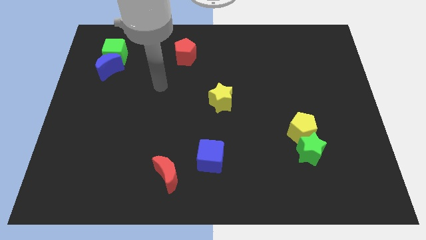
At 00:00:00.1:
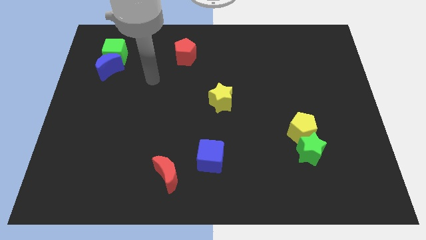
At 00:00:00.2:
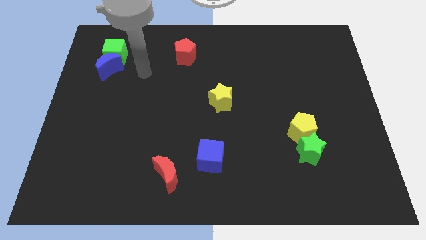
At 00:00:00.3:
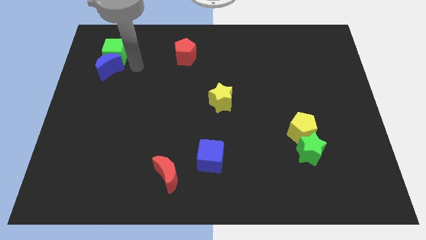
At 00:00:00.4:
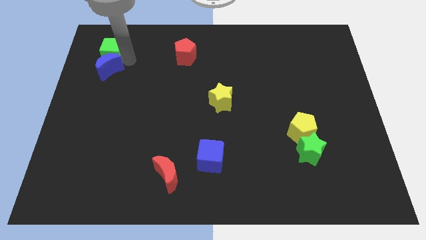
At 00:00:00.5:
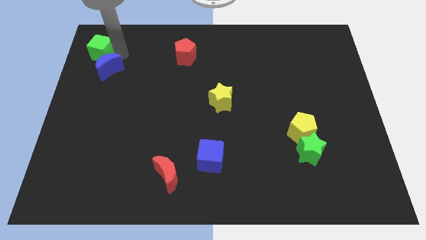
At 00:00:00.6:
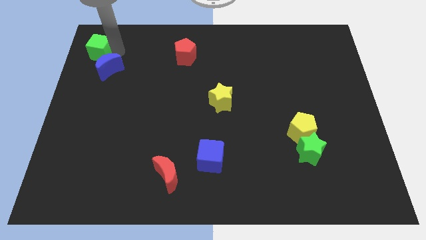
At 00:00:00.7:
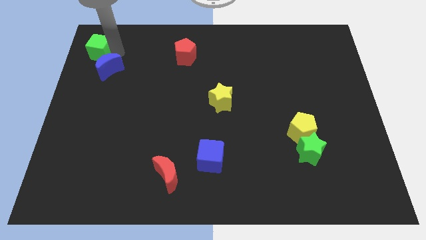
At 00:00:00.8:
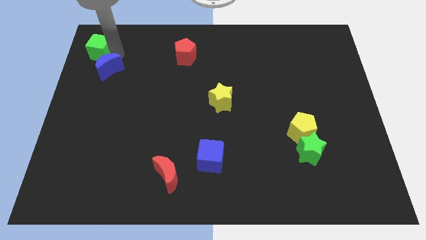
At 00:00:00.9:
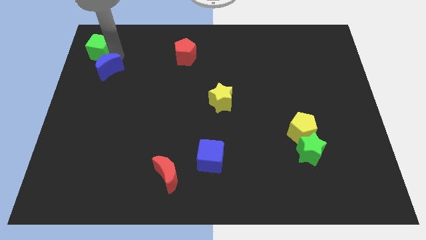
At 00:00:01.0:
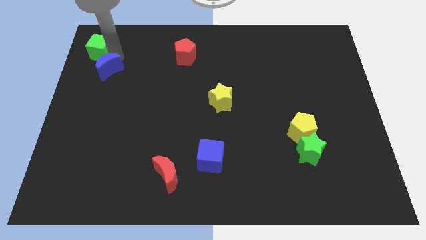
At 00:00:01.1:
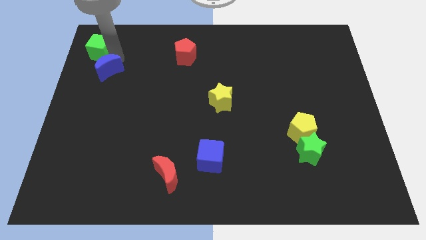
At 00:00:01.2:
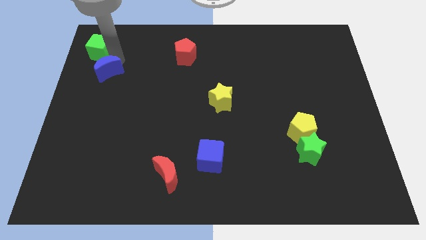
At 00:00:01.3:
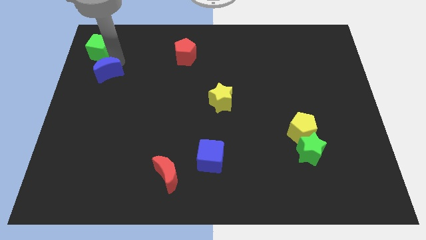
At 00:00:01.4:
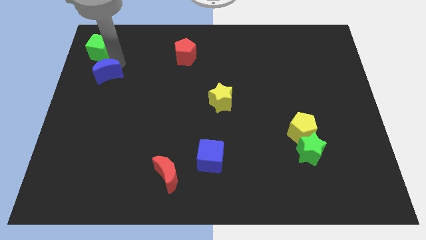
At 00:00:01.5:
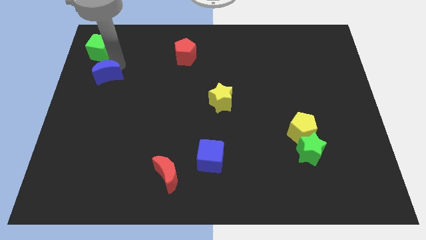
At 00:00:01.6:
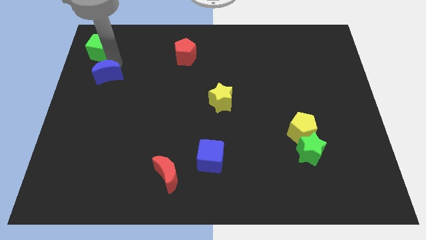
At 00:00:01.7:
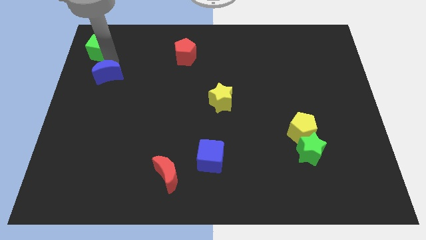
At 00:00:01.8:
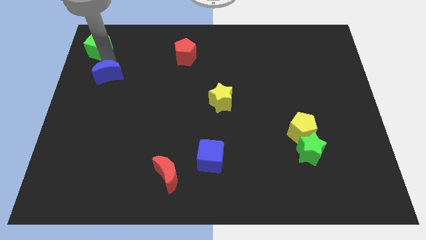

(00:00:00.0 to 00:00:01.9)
separate the blue moon from the green cube

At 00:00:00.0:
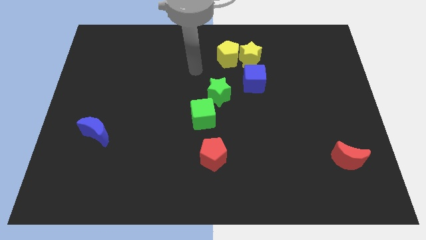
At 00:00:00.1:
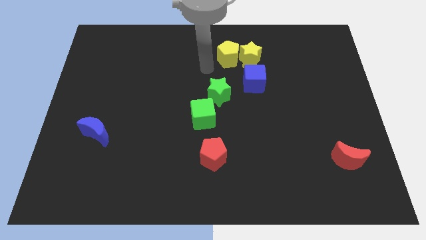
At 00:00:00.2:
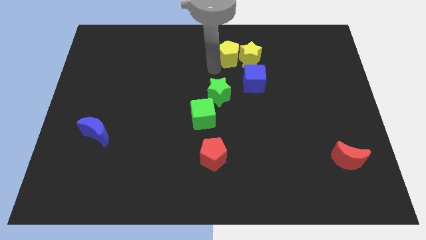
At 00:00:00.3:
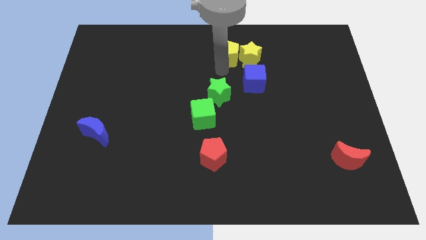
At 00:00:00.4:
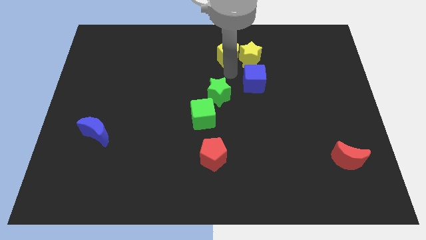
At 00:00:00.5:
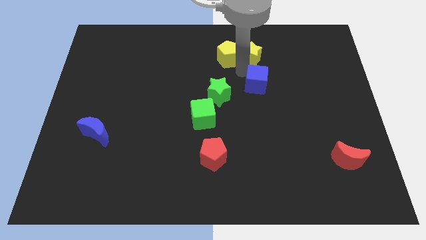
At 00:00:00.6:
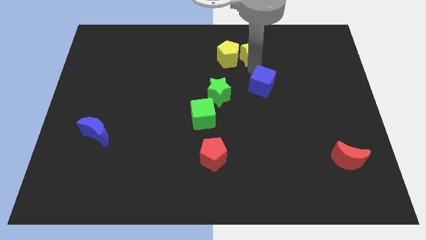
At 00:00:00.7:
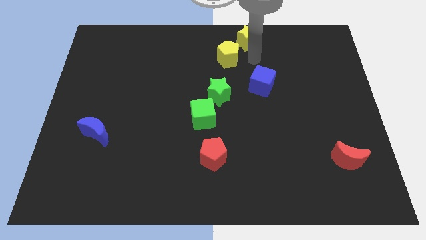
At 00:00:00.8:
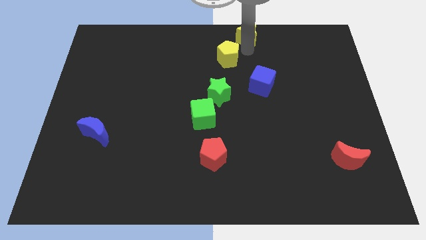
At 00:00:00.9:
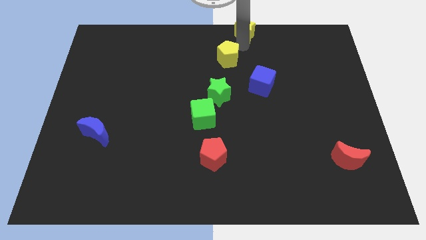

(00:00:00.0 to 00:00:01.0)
separate the yellow pentagon from the yellow star

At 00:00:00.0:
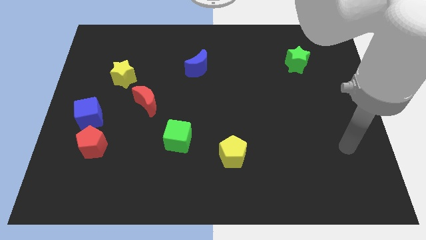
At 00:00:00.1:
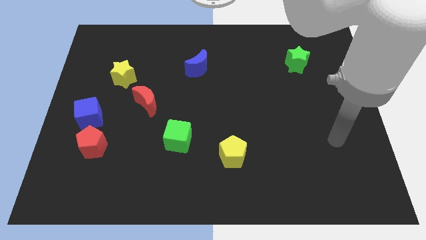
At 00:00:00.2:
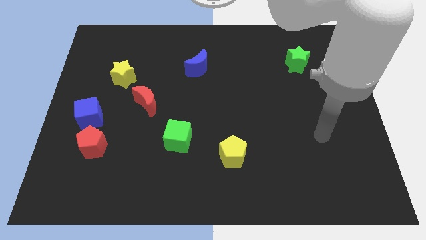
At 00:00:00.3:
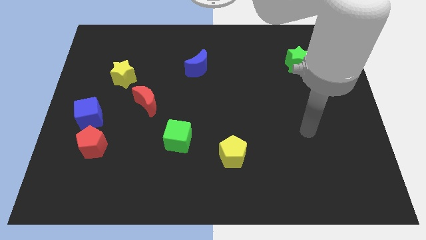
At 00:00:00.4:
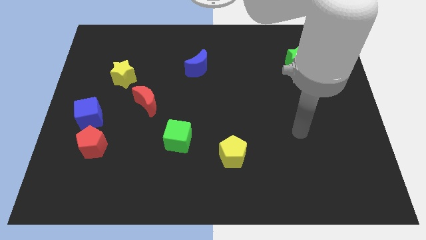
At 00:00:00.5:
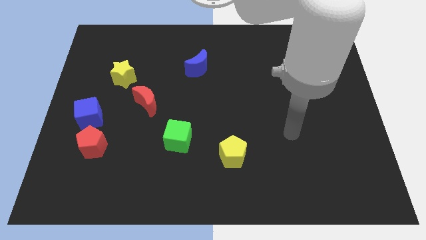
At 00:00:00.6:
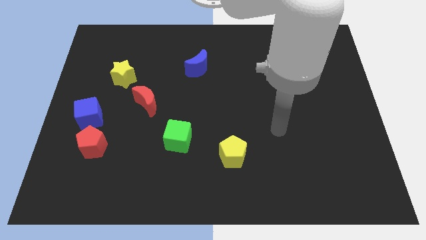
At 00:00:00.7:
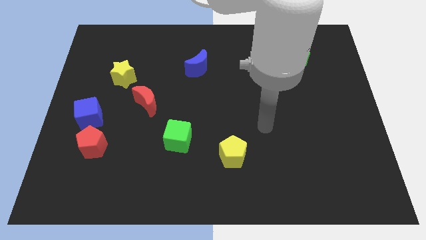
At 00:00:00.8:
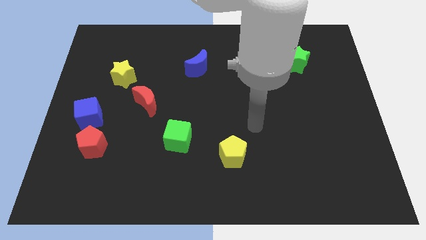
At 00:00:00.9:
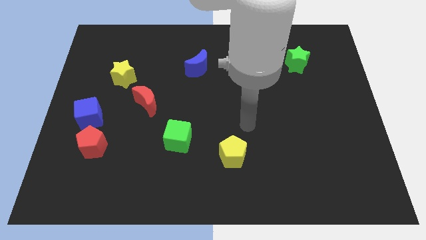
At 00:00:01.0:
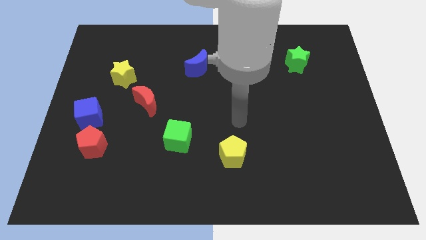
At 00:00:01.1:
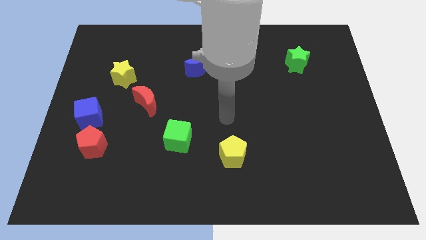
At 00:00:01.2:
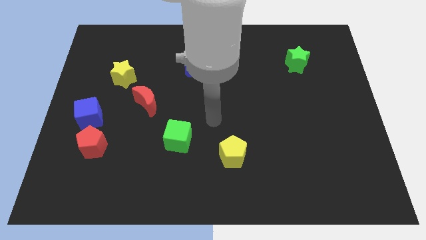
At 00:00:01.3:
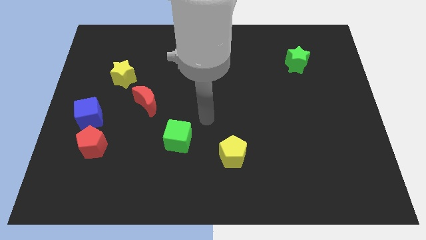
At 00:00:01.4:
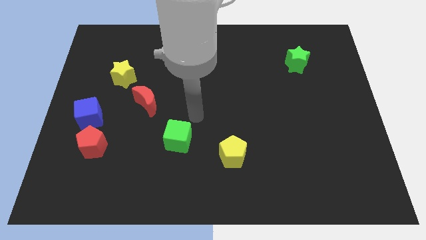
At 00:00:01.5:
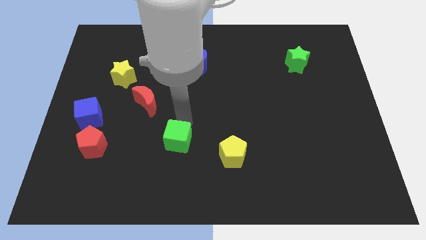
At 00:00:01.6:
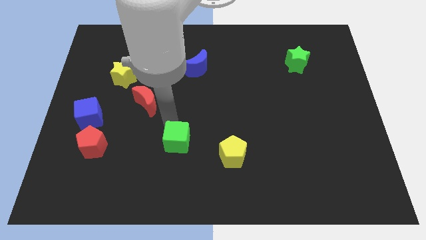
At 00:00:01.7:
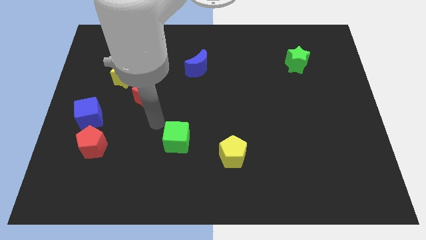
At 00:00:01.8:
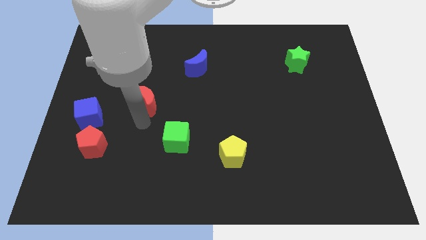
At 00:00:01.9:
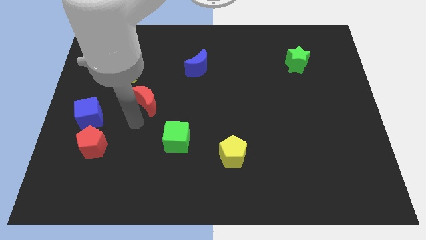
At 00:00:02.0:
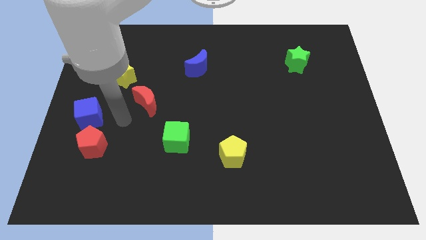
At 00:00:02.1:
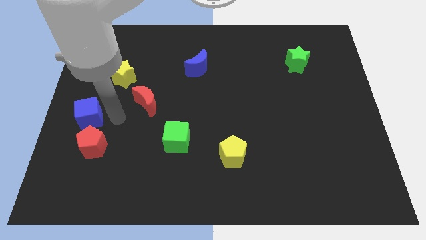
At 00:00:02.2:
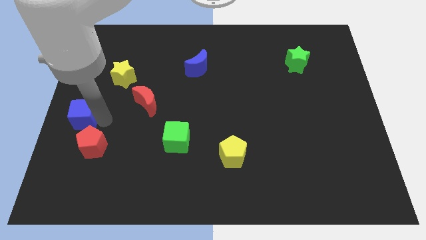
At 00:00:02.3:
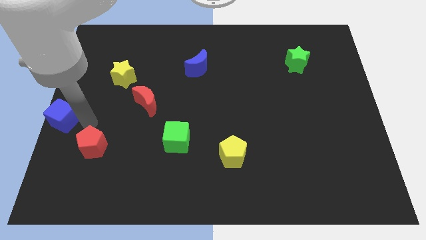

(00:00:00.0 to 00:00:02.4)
pull the red pentagon apart from the blue cube

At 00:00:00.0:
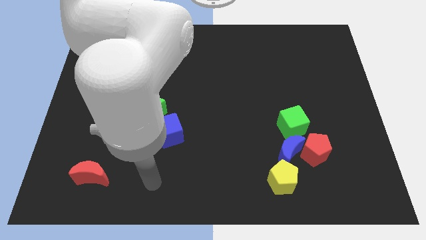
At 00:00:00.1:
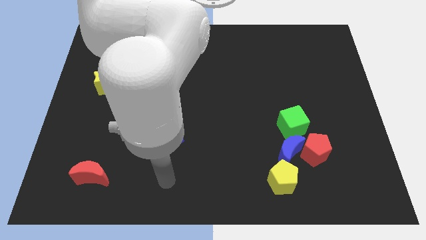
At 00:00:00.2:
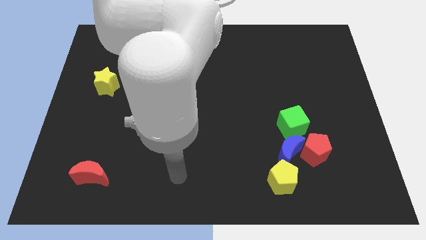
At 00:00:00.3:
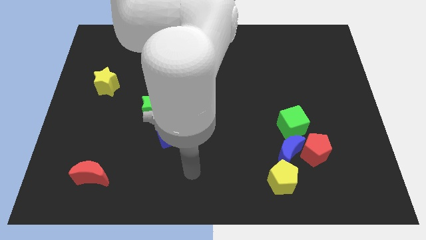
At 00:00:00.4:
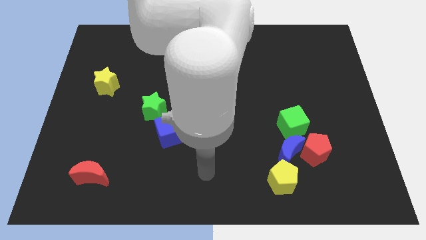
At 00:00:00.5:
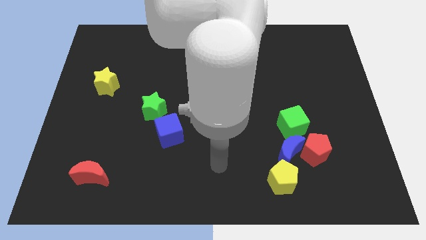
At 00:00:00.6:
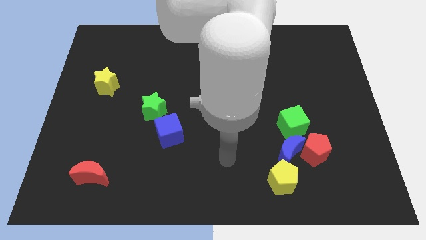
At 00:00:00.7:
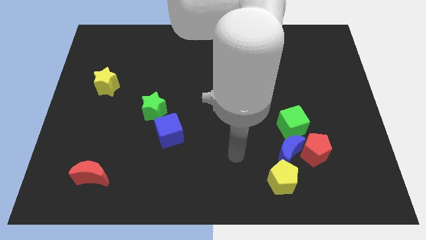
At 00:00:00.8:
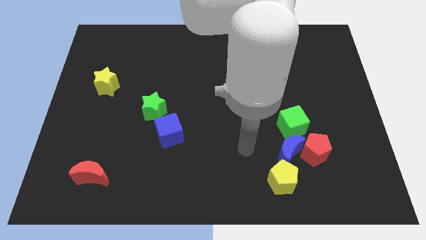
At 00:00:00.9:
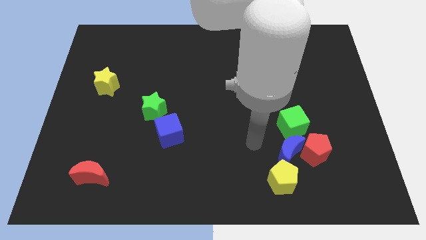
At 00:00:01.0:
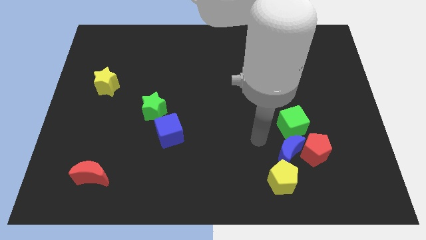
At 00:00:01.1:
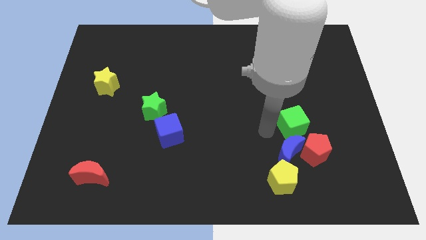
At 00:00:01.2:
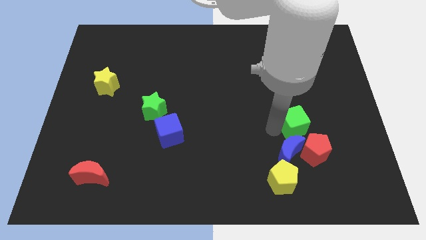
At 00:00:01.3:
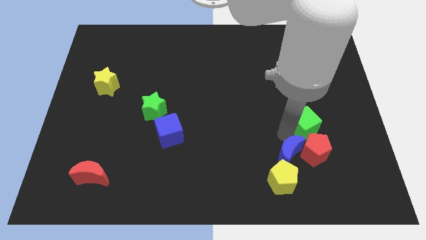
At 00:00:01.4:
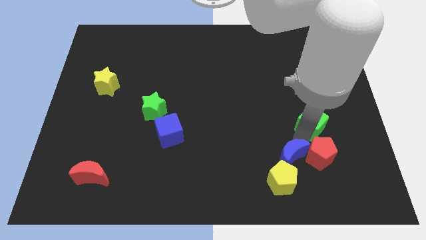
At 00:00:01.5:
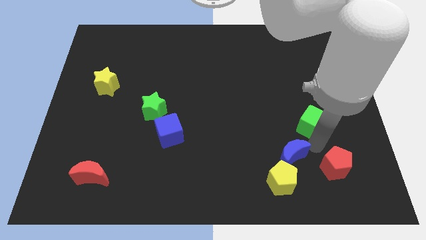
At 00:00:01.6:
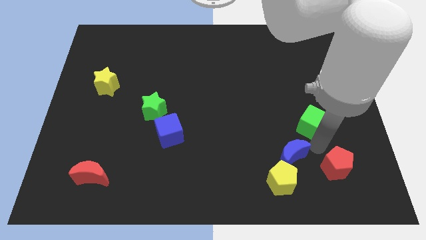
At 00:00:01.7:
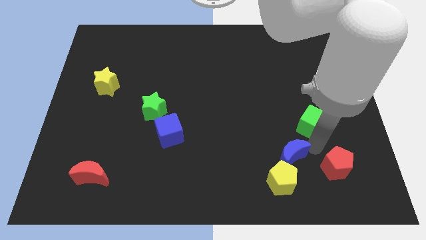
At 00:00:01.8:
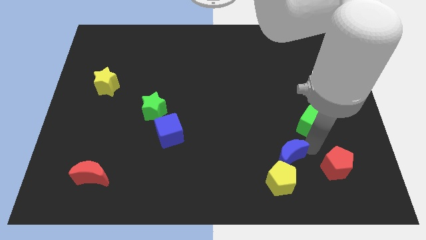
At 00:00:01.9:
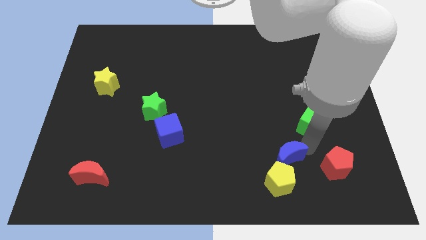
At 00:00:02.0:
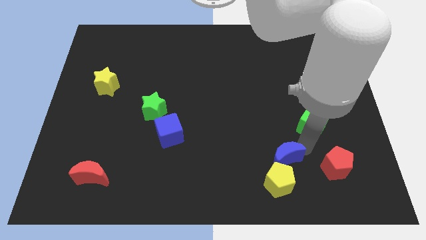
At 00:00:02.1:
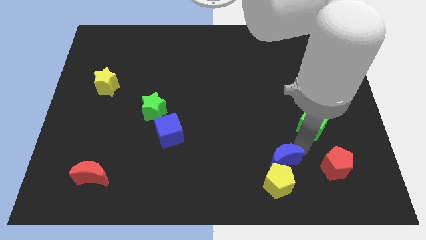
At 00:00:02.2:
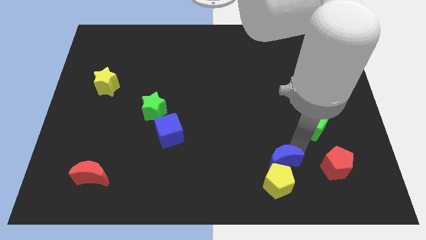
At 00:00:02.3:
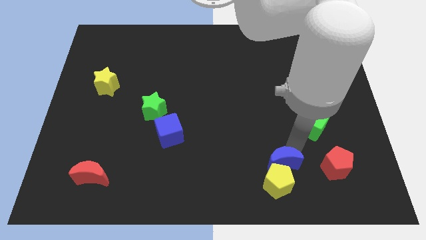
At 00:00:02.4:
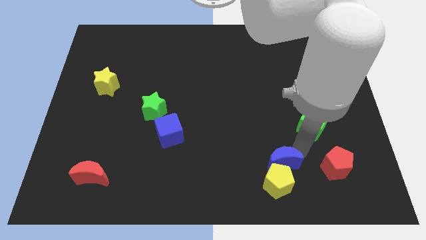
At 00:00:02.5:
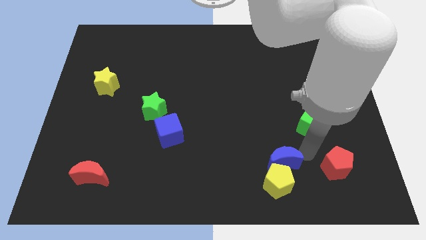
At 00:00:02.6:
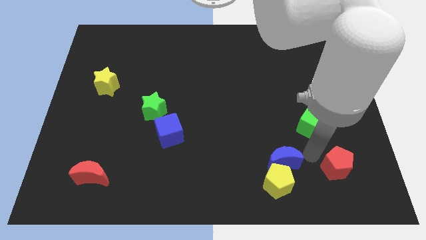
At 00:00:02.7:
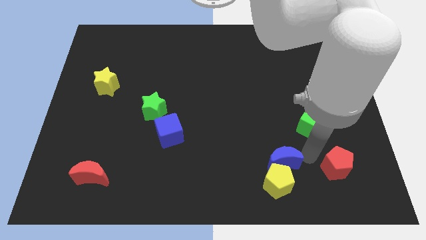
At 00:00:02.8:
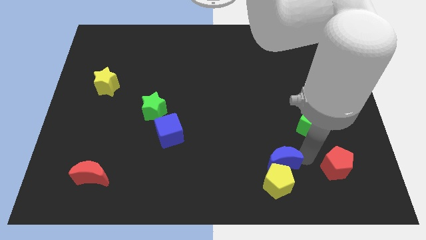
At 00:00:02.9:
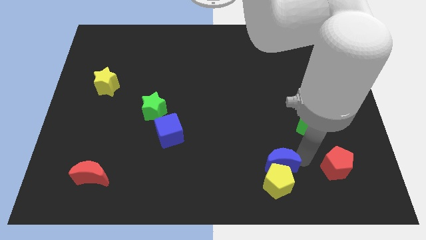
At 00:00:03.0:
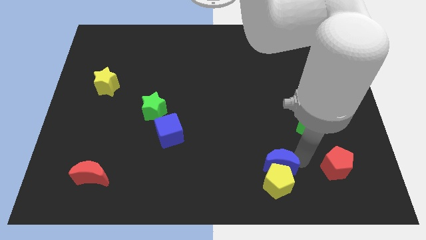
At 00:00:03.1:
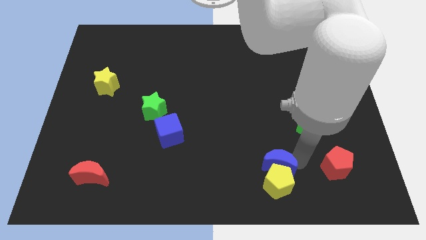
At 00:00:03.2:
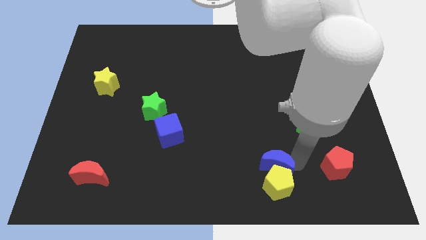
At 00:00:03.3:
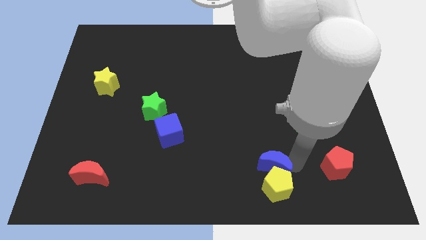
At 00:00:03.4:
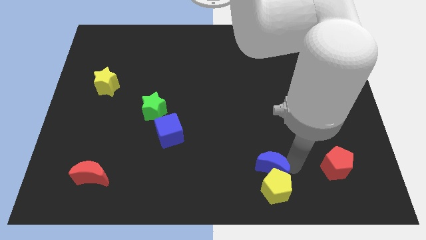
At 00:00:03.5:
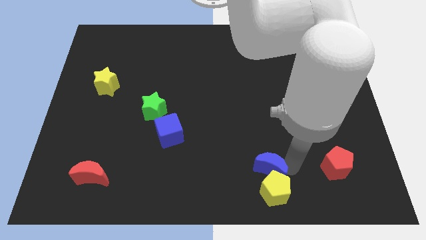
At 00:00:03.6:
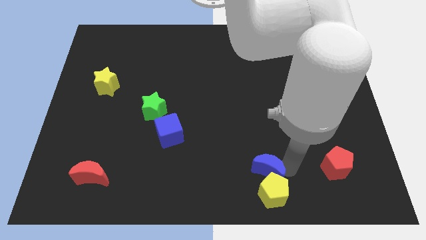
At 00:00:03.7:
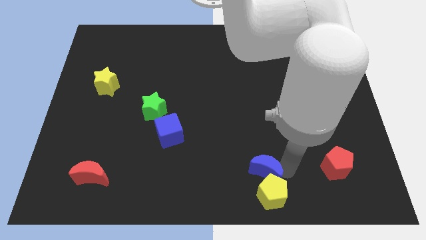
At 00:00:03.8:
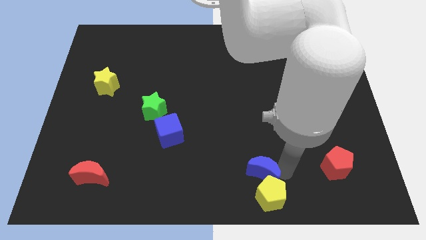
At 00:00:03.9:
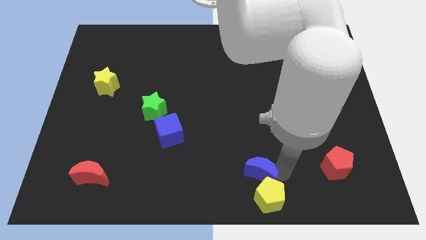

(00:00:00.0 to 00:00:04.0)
separate the blue moon from the clump
